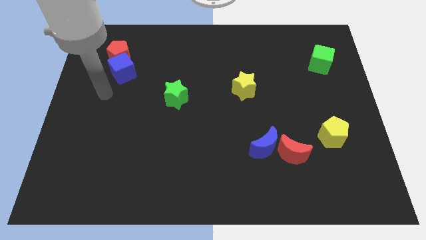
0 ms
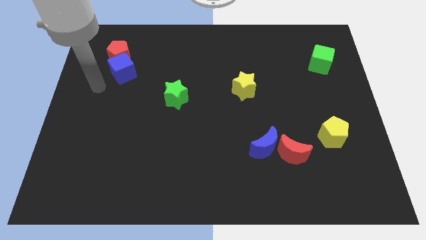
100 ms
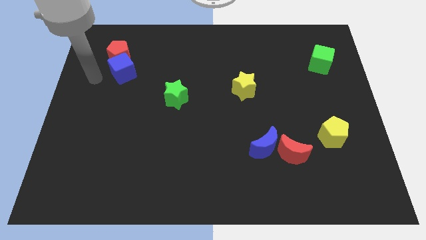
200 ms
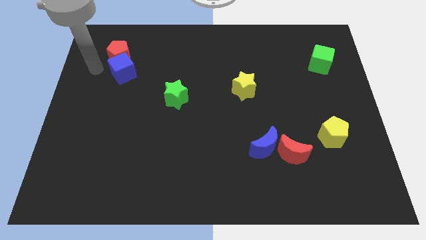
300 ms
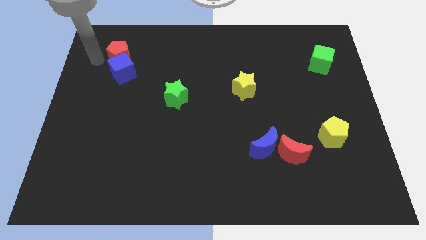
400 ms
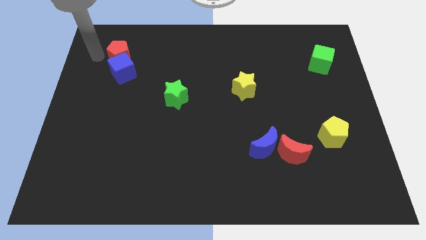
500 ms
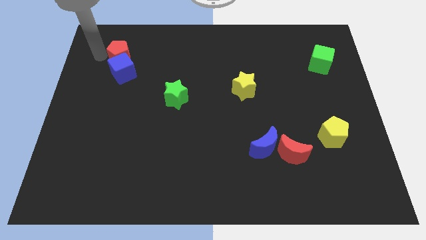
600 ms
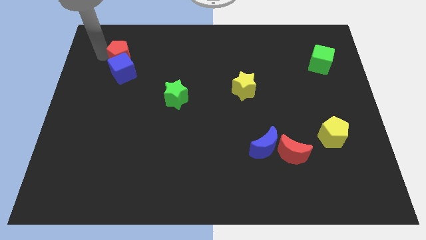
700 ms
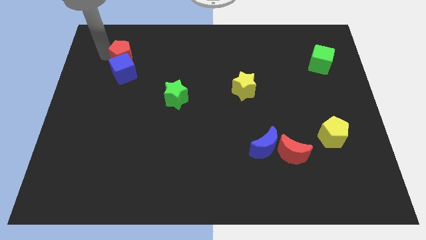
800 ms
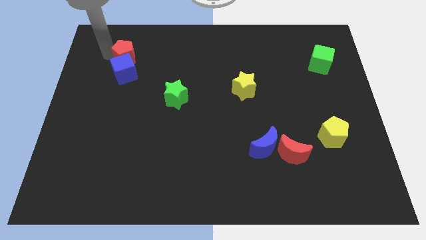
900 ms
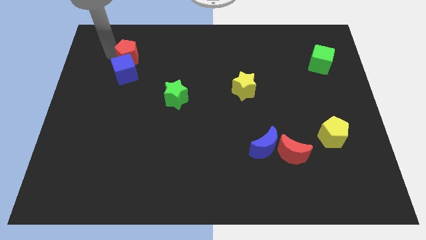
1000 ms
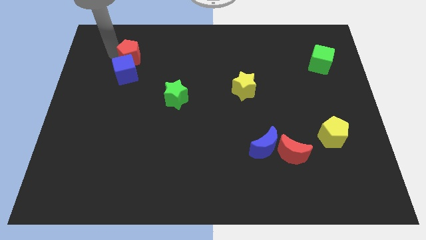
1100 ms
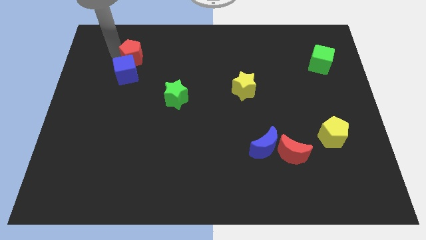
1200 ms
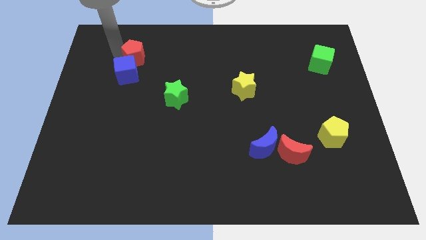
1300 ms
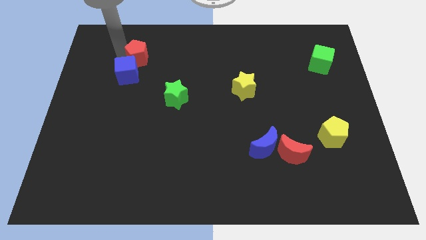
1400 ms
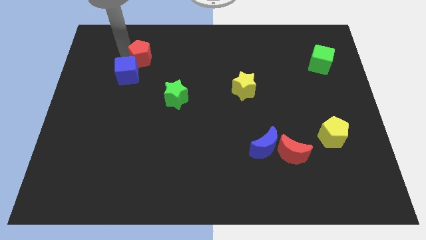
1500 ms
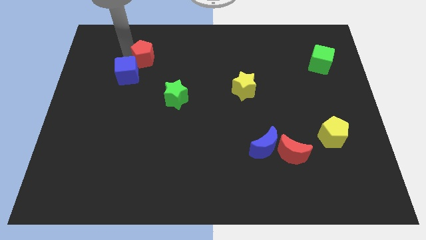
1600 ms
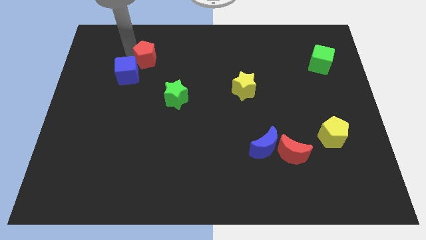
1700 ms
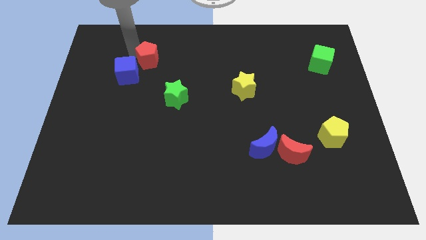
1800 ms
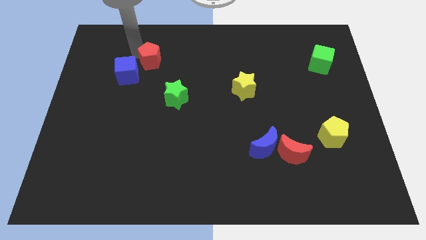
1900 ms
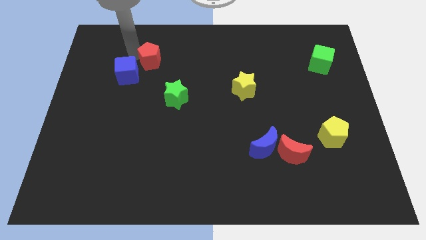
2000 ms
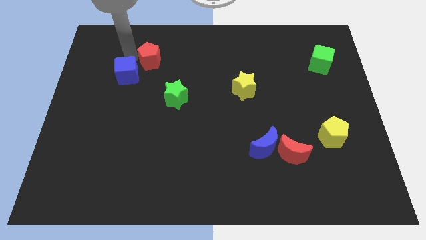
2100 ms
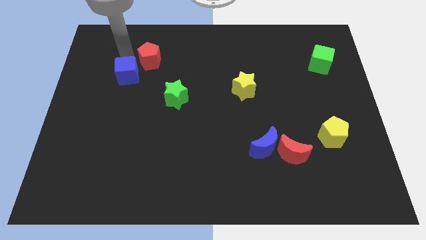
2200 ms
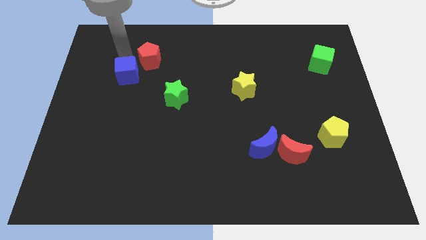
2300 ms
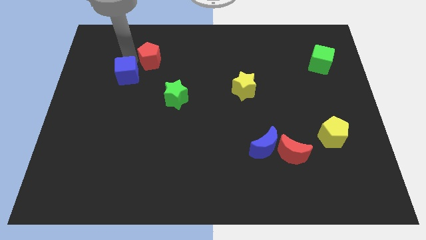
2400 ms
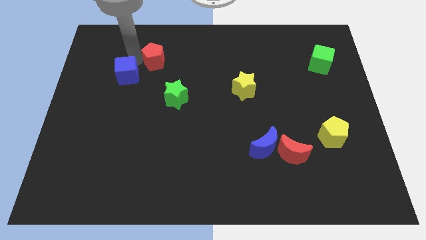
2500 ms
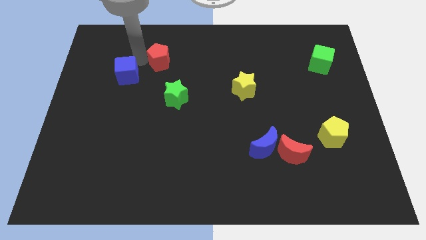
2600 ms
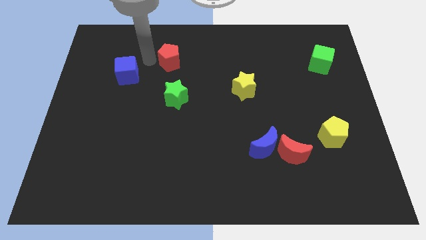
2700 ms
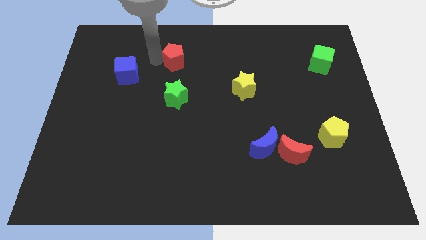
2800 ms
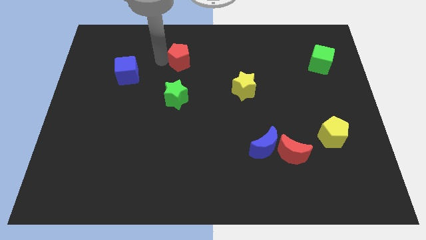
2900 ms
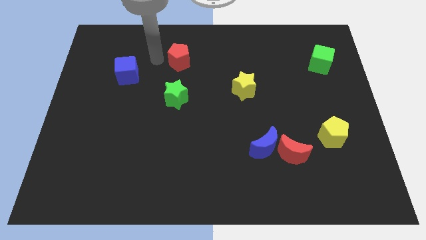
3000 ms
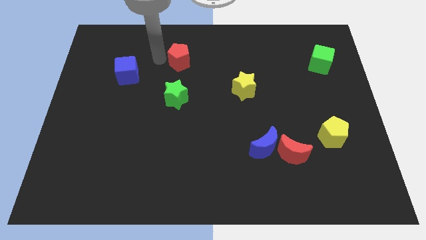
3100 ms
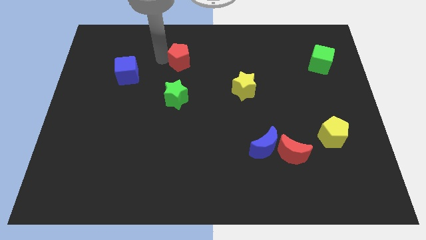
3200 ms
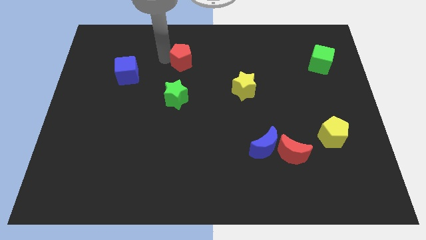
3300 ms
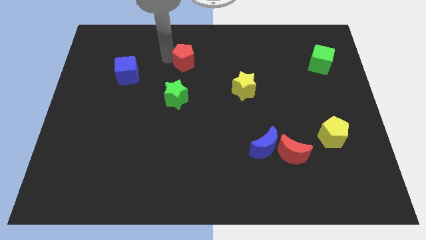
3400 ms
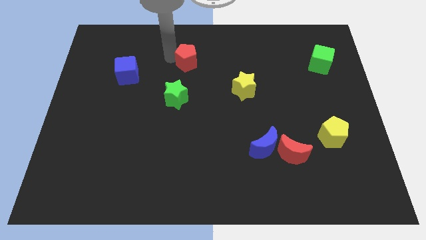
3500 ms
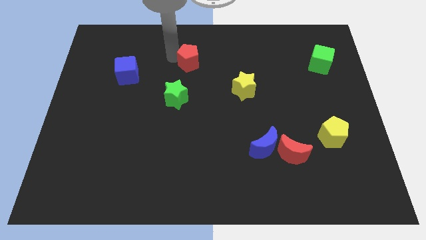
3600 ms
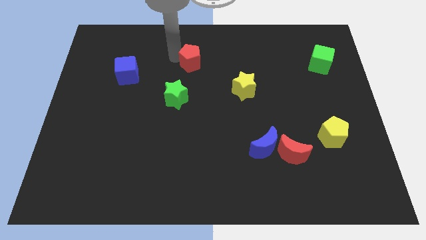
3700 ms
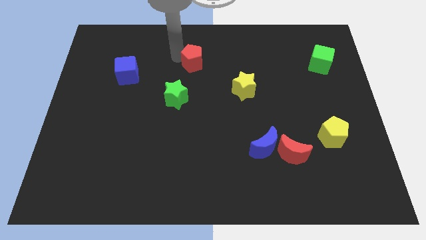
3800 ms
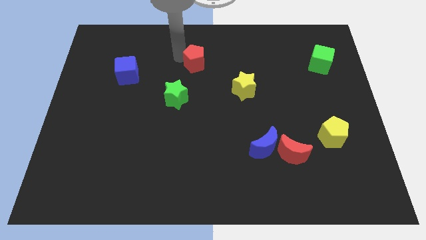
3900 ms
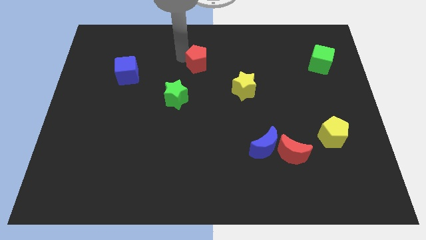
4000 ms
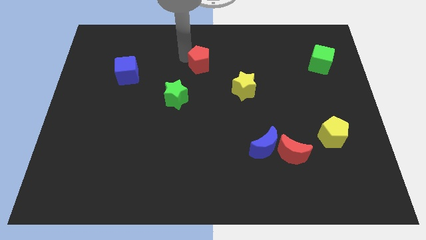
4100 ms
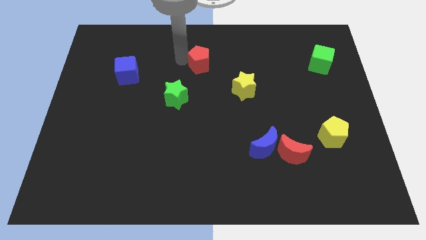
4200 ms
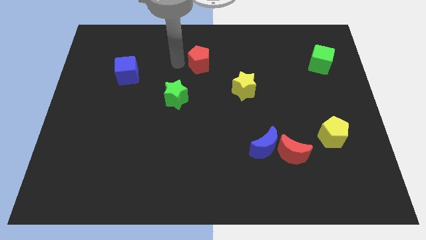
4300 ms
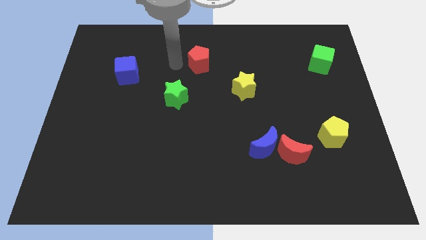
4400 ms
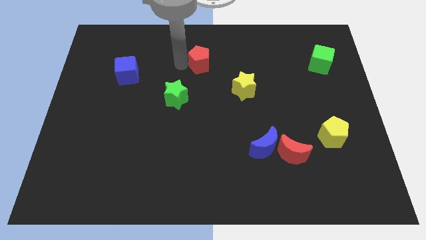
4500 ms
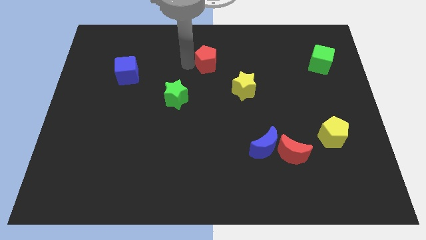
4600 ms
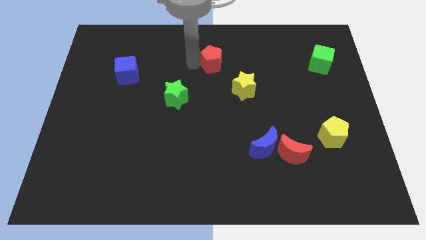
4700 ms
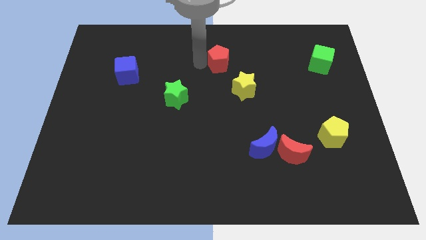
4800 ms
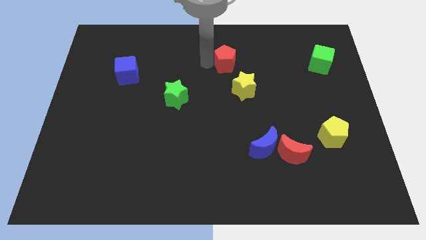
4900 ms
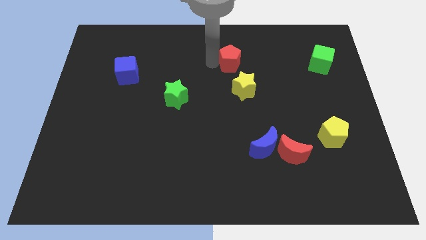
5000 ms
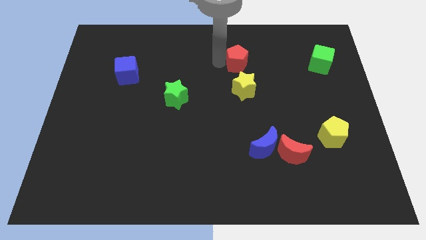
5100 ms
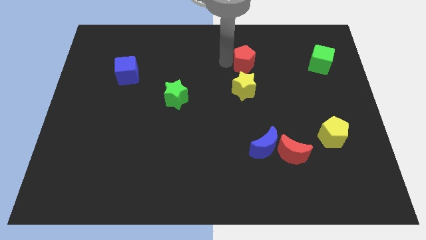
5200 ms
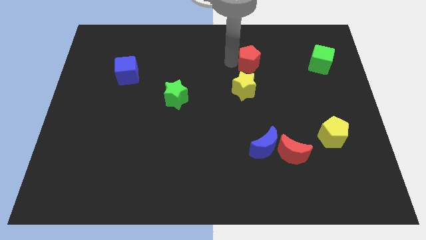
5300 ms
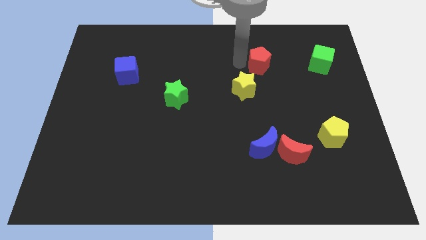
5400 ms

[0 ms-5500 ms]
push the red pentagon just left of the green cube

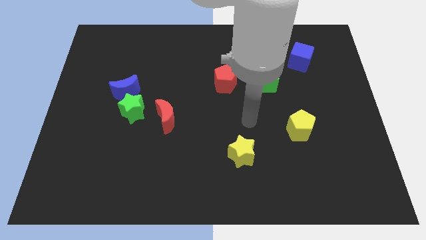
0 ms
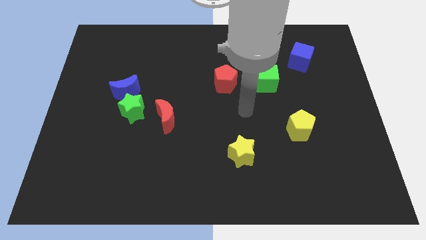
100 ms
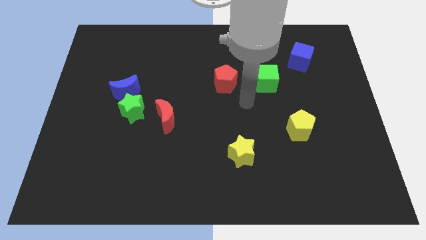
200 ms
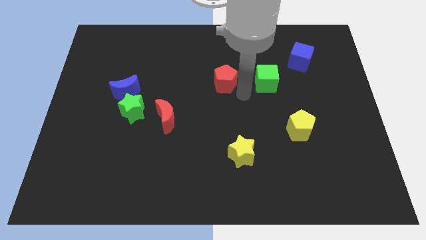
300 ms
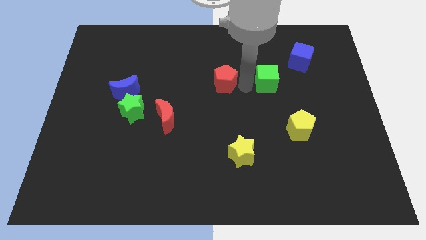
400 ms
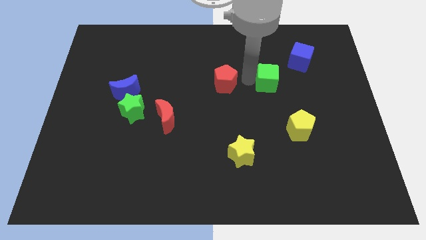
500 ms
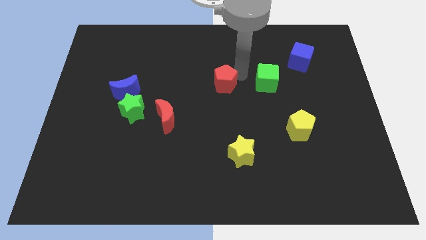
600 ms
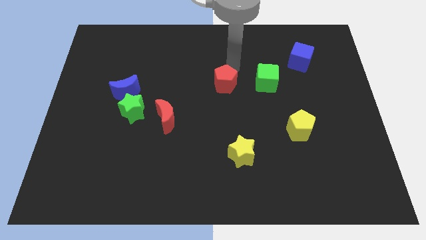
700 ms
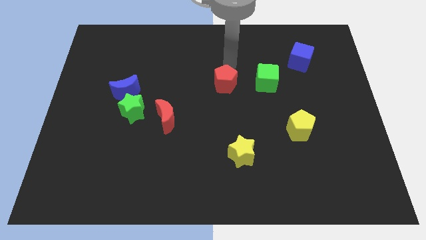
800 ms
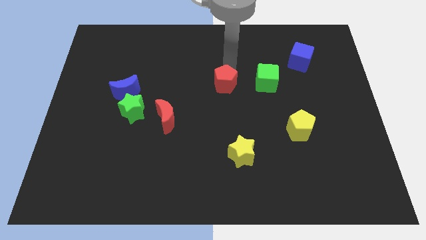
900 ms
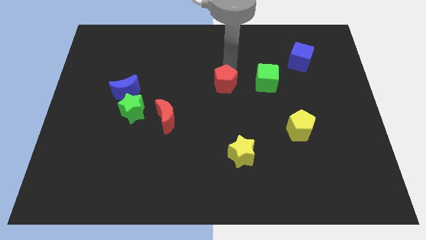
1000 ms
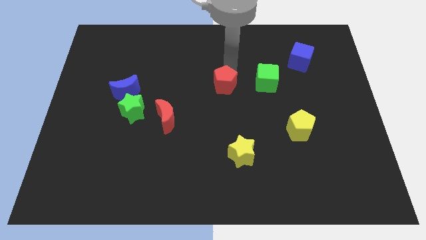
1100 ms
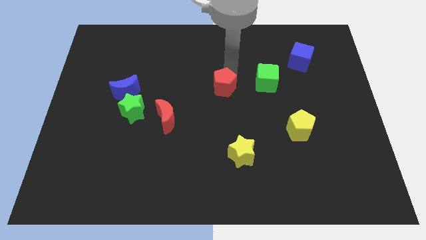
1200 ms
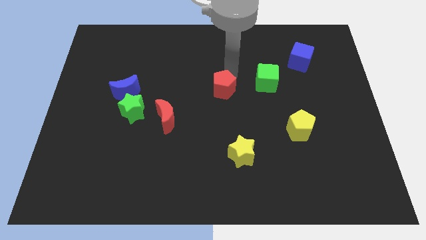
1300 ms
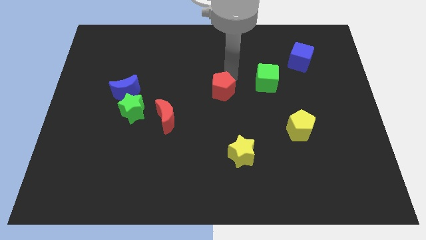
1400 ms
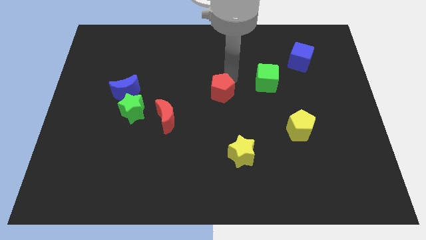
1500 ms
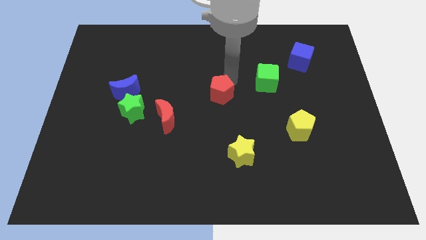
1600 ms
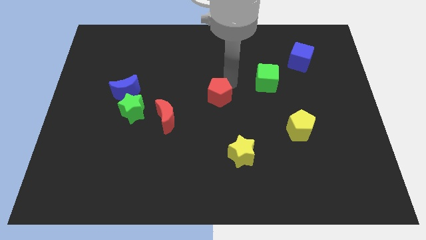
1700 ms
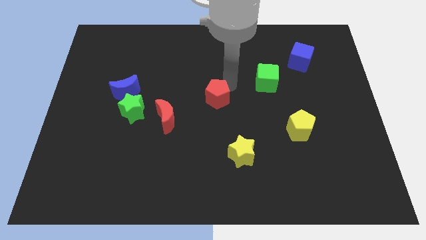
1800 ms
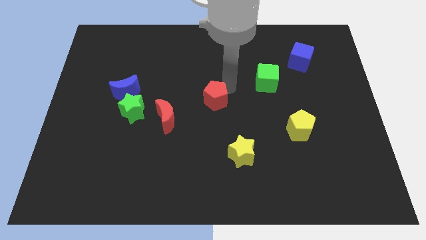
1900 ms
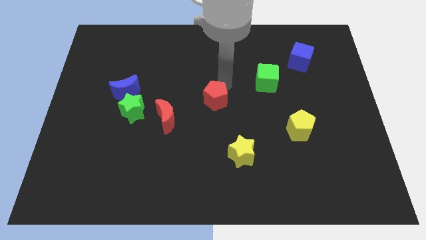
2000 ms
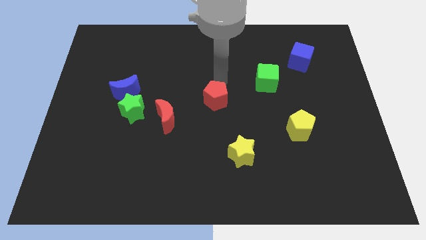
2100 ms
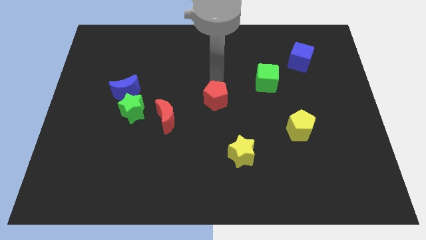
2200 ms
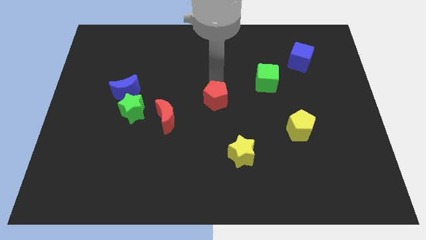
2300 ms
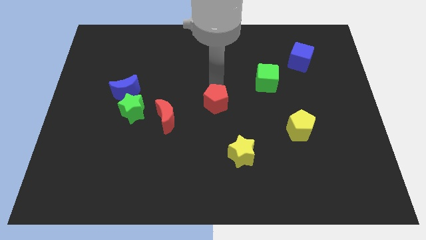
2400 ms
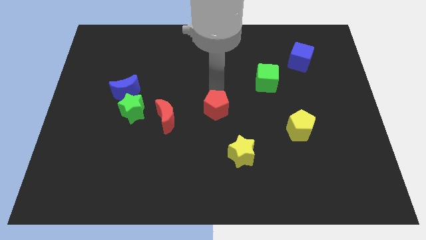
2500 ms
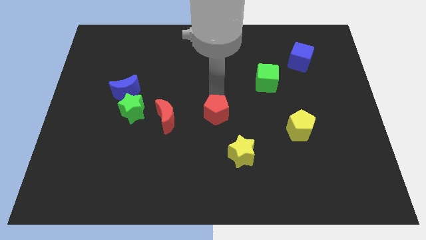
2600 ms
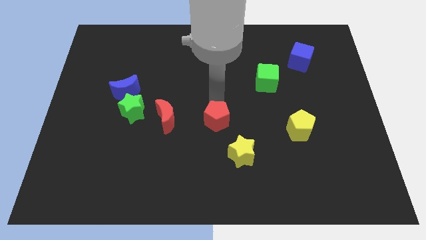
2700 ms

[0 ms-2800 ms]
move the red pentagon to the top left of the yellow star
